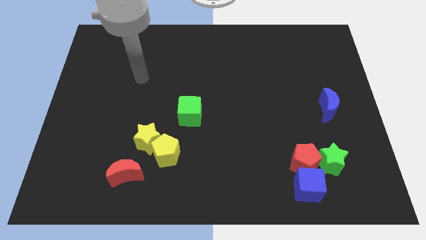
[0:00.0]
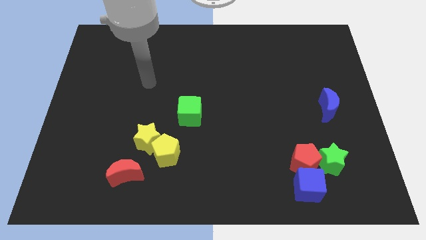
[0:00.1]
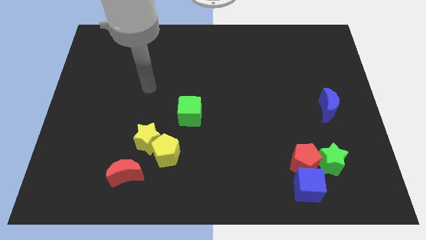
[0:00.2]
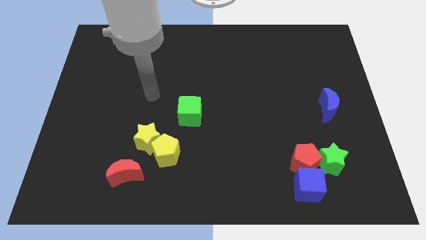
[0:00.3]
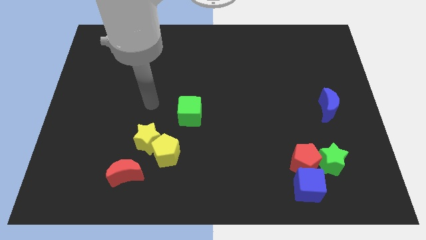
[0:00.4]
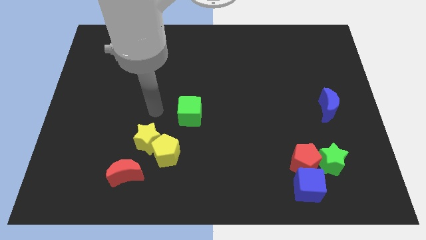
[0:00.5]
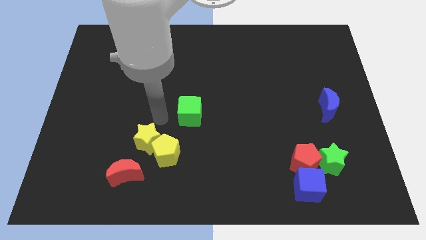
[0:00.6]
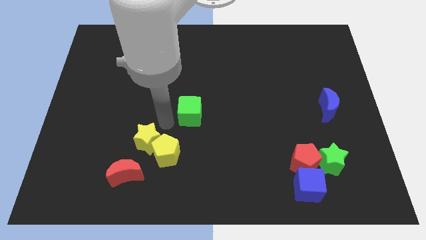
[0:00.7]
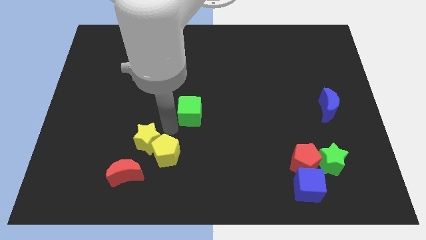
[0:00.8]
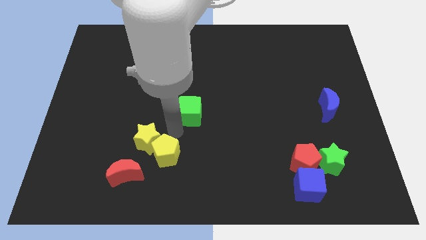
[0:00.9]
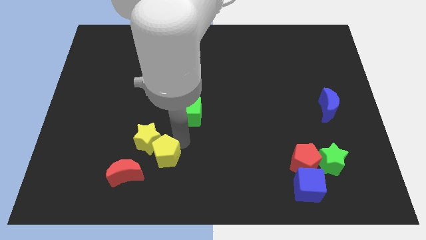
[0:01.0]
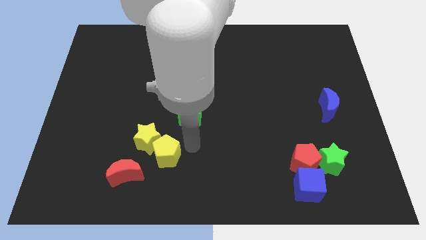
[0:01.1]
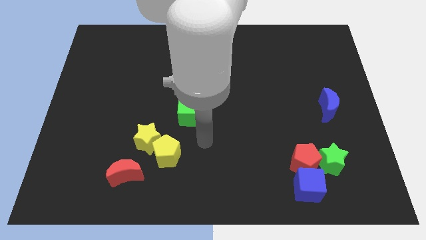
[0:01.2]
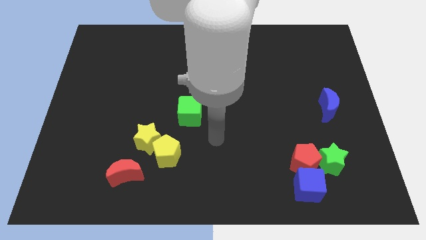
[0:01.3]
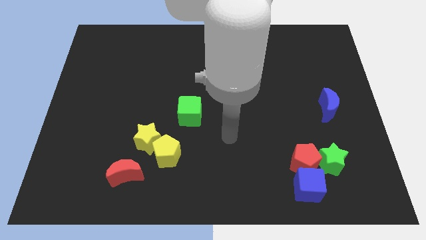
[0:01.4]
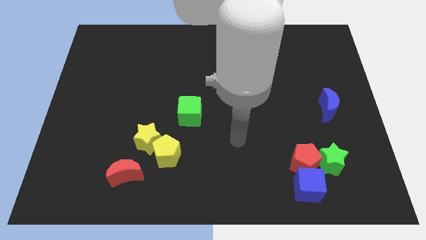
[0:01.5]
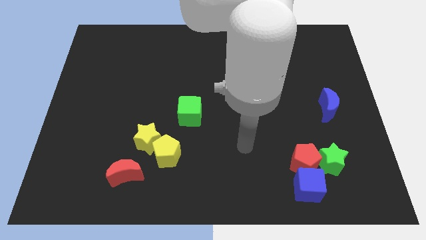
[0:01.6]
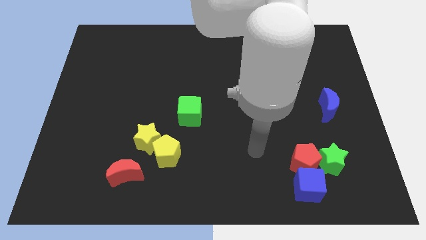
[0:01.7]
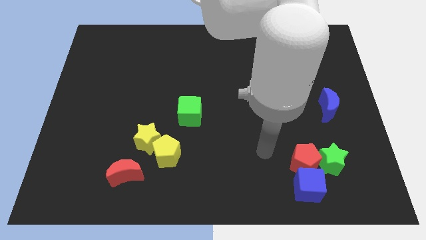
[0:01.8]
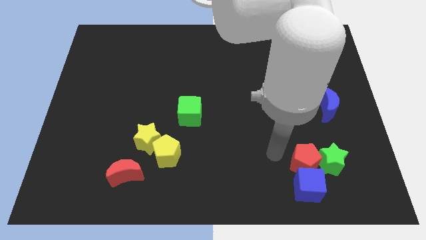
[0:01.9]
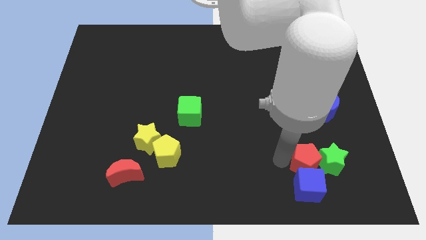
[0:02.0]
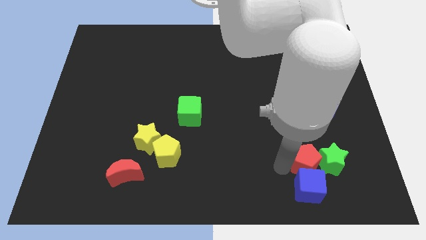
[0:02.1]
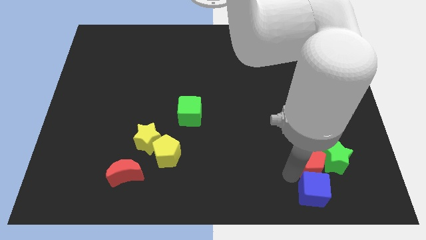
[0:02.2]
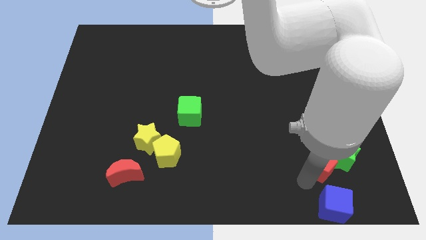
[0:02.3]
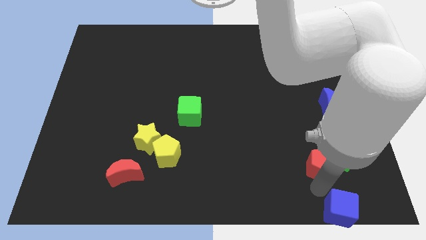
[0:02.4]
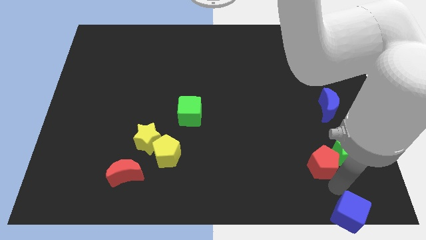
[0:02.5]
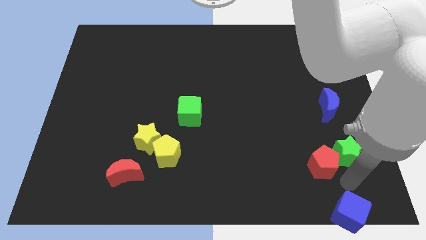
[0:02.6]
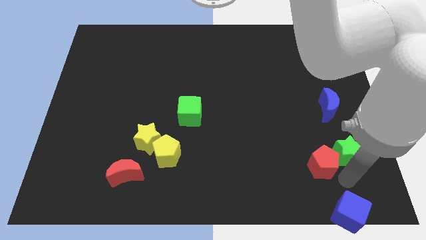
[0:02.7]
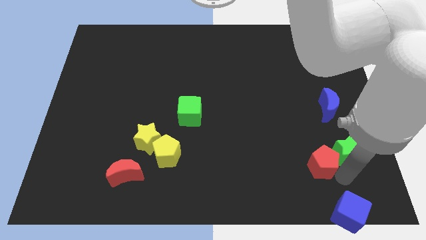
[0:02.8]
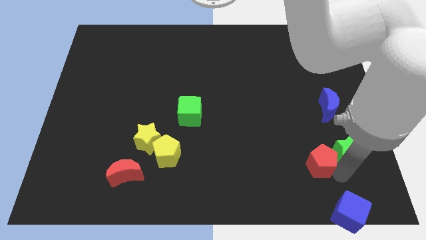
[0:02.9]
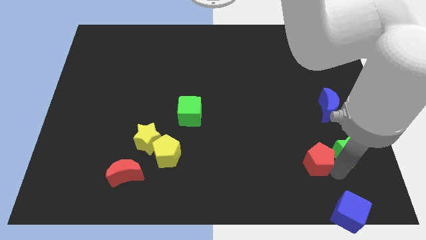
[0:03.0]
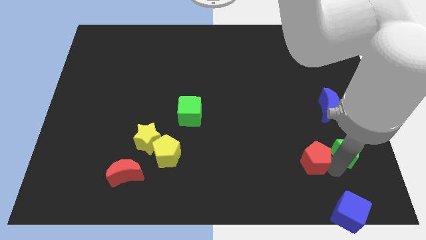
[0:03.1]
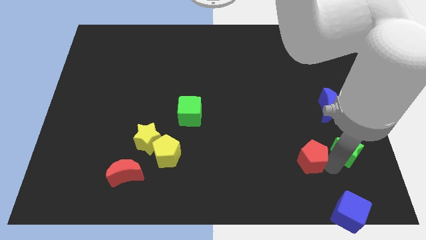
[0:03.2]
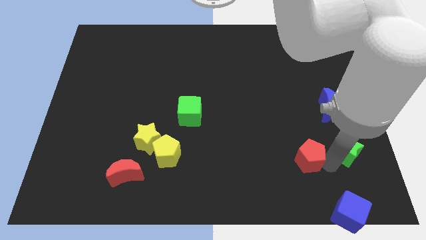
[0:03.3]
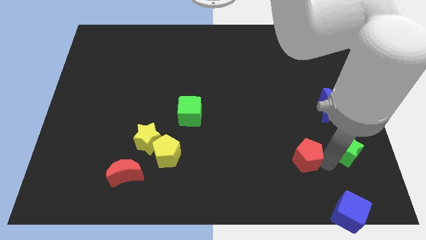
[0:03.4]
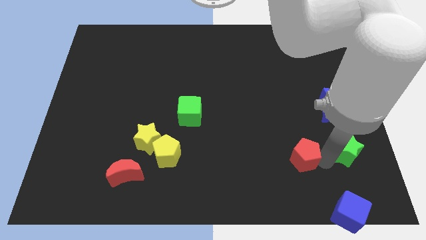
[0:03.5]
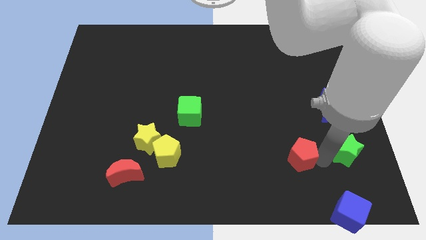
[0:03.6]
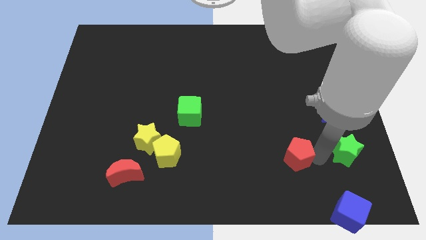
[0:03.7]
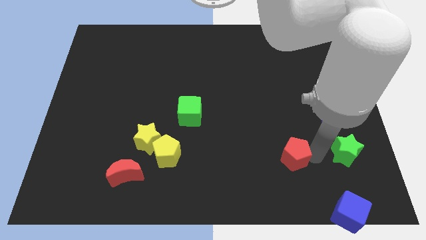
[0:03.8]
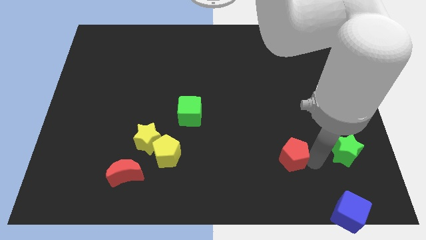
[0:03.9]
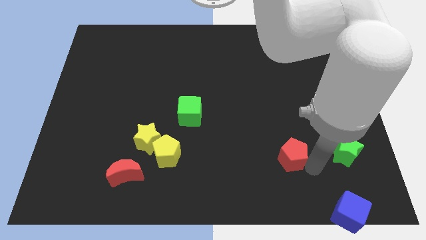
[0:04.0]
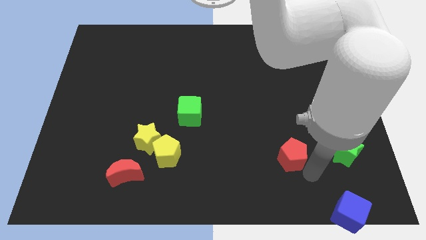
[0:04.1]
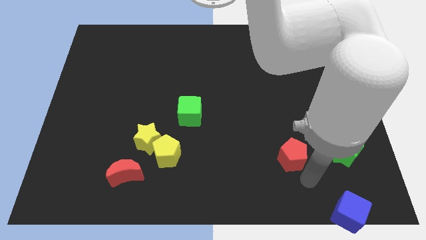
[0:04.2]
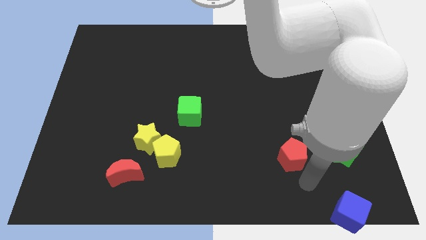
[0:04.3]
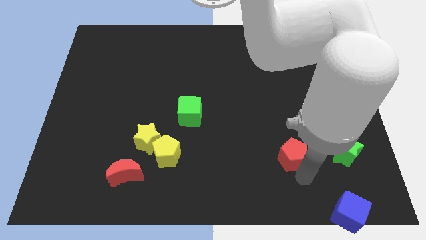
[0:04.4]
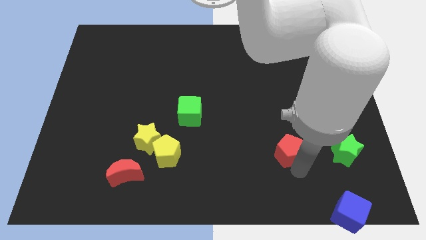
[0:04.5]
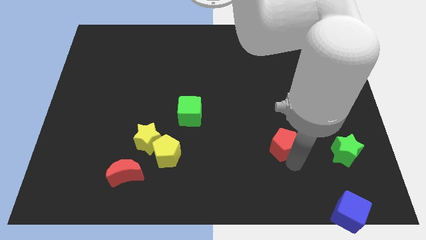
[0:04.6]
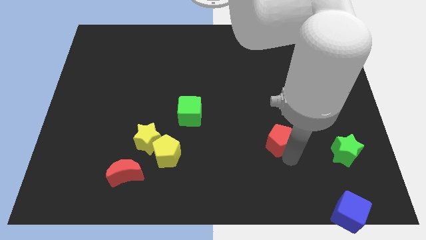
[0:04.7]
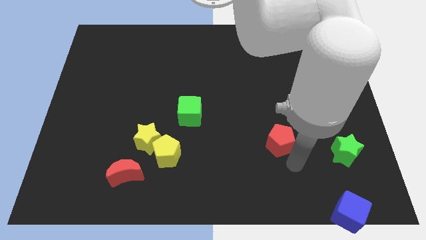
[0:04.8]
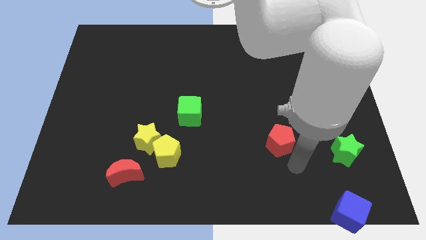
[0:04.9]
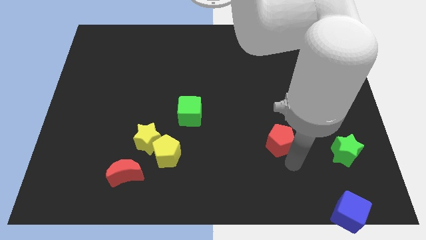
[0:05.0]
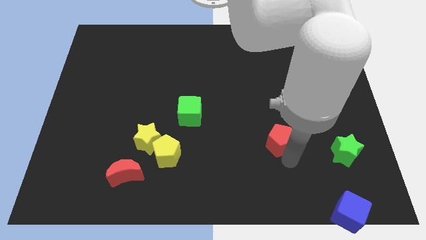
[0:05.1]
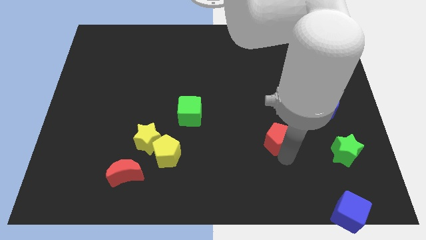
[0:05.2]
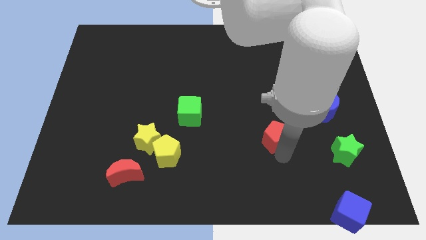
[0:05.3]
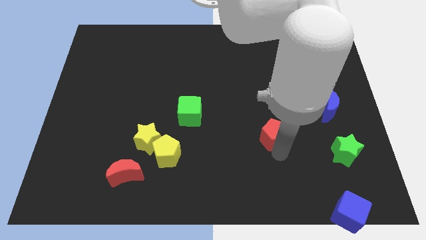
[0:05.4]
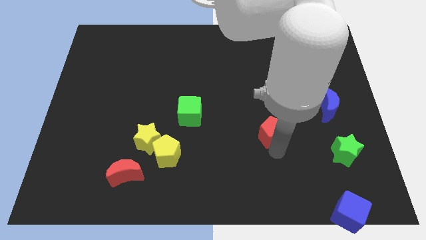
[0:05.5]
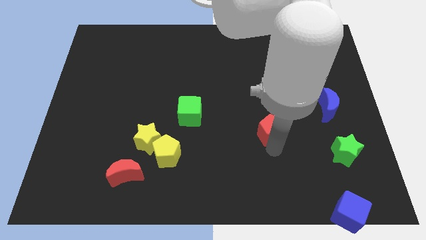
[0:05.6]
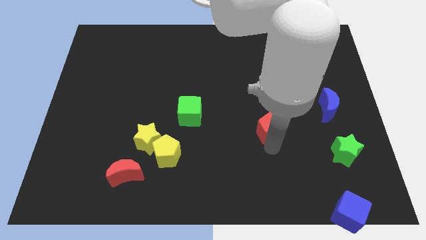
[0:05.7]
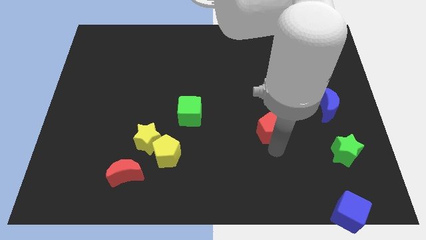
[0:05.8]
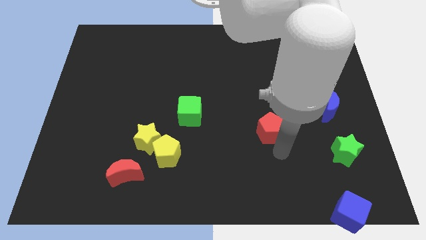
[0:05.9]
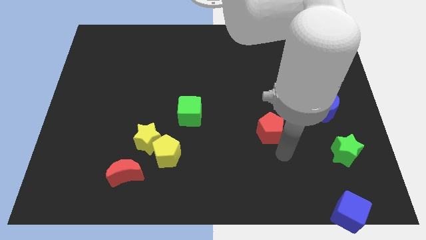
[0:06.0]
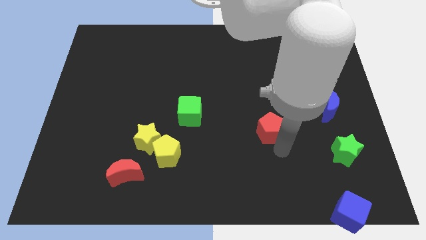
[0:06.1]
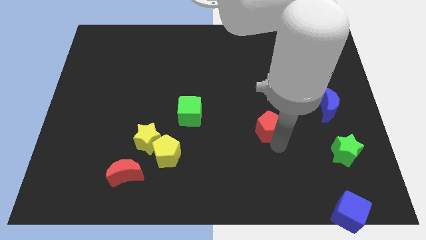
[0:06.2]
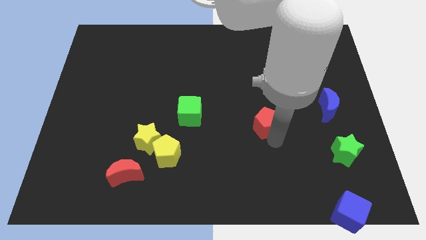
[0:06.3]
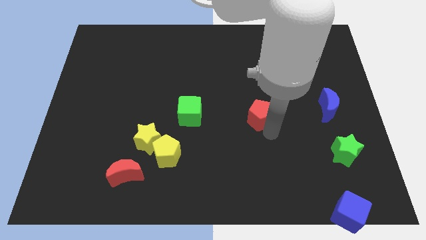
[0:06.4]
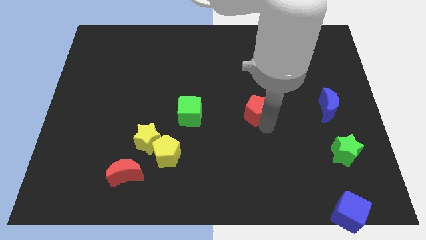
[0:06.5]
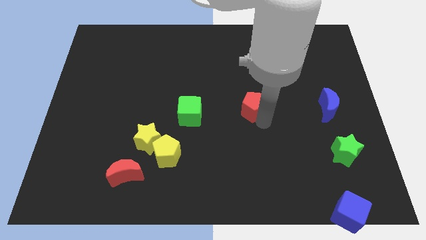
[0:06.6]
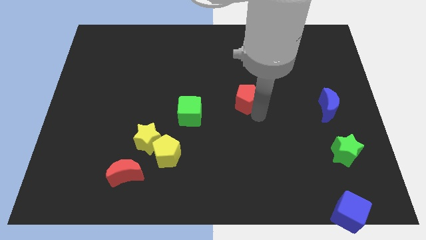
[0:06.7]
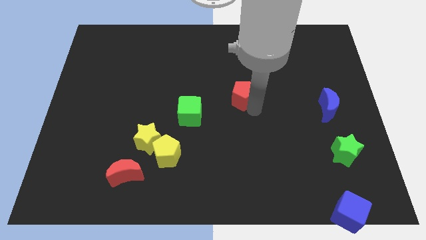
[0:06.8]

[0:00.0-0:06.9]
move the red pentagon up and to the left

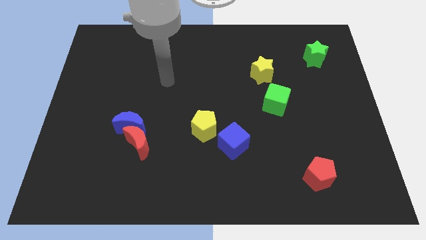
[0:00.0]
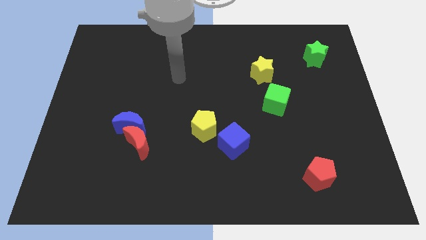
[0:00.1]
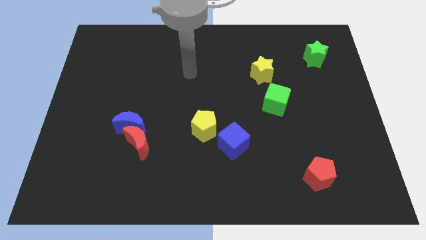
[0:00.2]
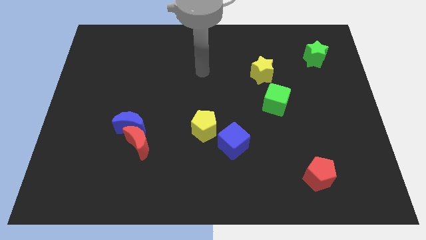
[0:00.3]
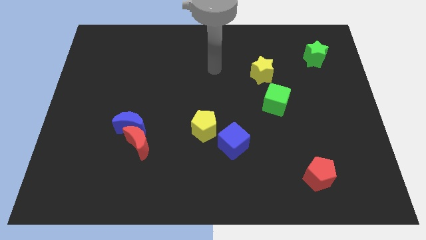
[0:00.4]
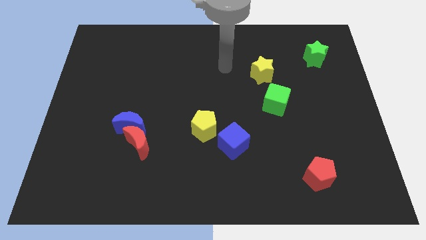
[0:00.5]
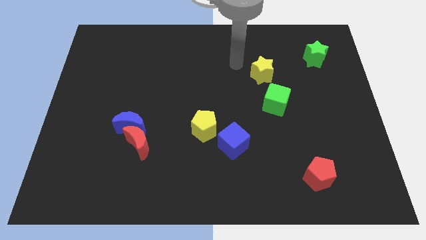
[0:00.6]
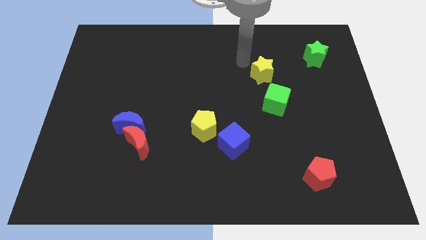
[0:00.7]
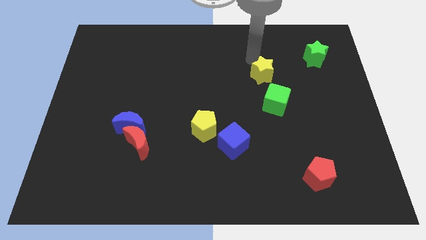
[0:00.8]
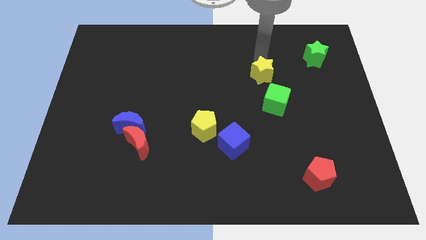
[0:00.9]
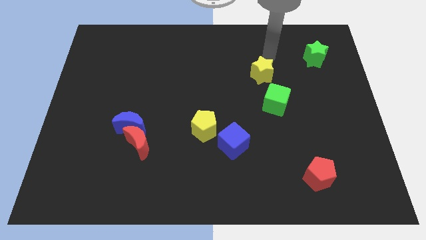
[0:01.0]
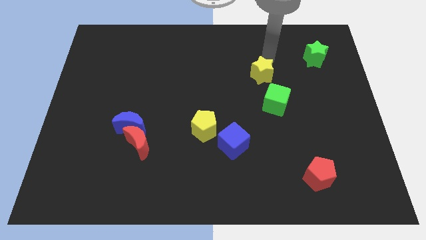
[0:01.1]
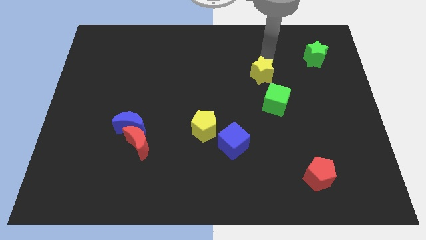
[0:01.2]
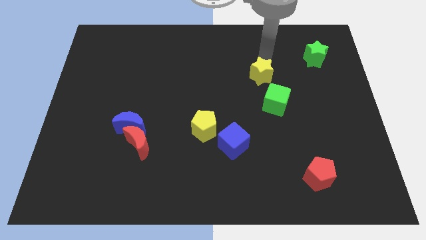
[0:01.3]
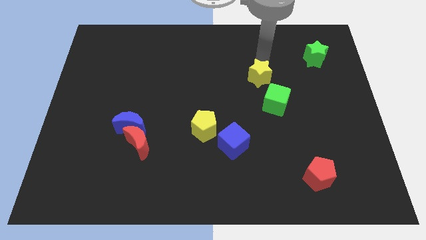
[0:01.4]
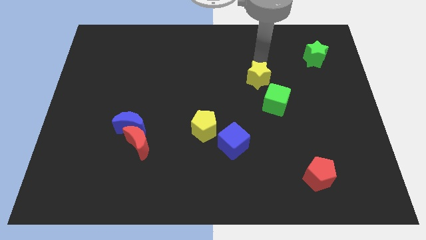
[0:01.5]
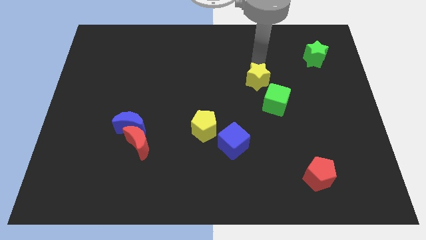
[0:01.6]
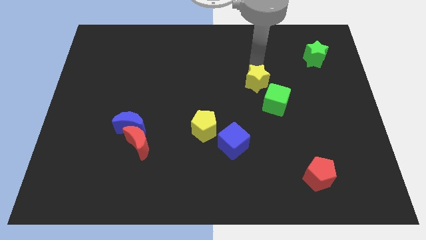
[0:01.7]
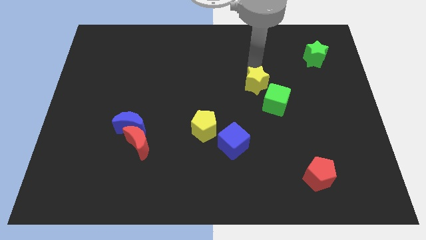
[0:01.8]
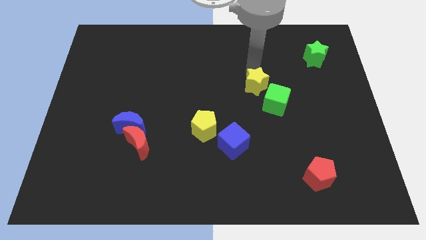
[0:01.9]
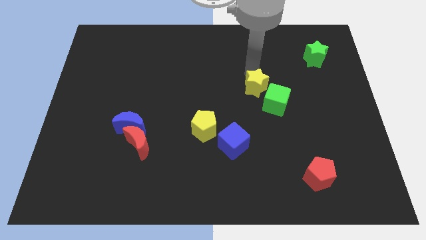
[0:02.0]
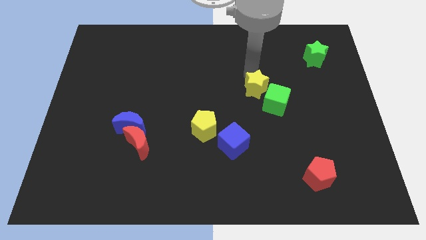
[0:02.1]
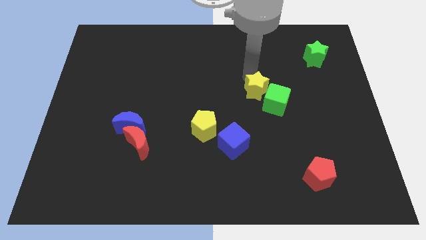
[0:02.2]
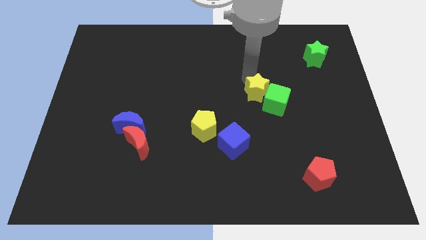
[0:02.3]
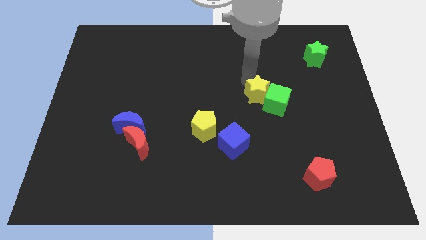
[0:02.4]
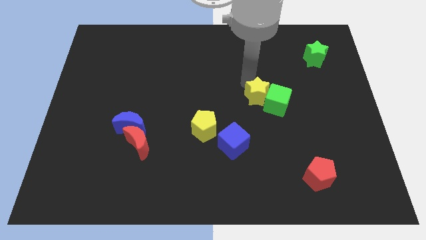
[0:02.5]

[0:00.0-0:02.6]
slide the yellow star a little downwards
